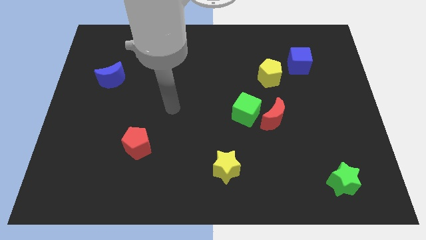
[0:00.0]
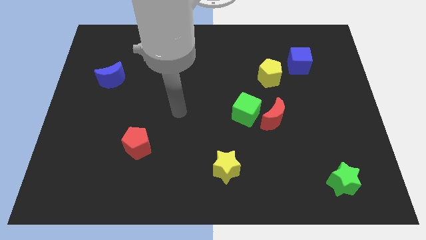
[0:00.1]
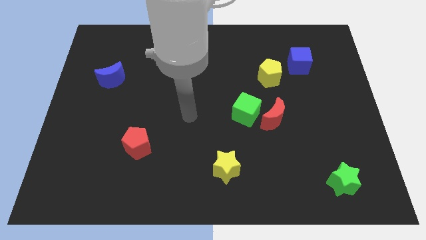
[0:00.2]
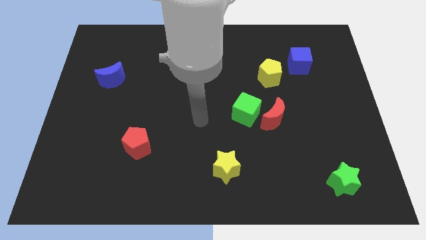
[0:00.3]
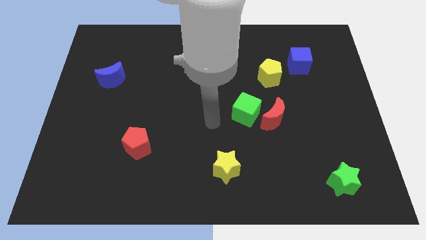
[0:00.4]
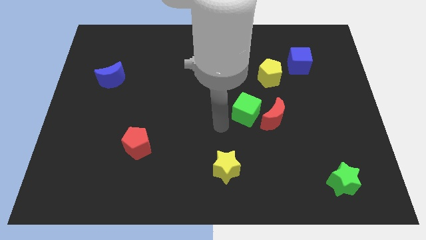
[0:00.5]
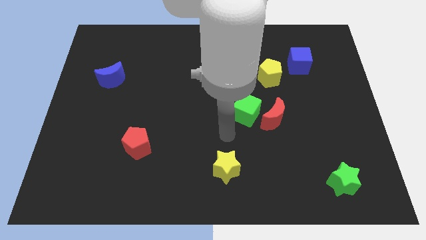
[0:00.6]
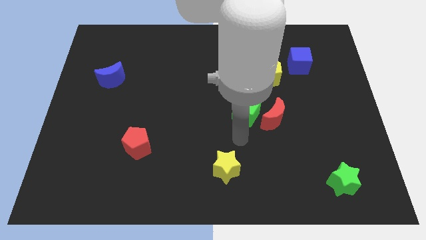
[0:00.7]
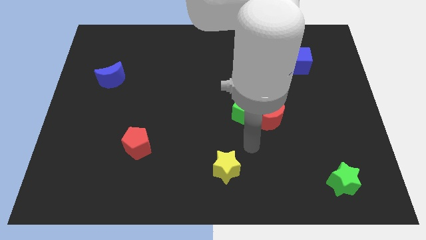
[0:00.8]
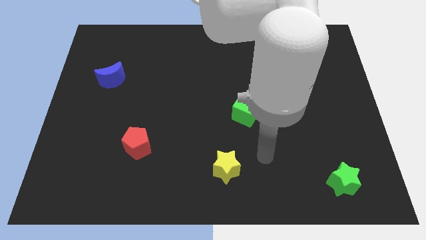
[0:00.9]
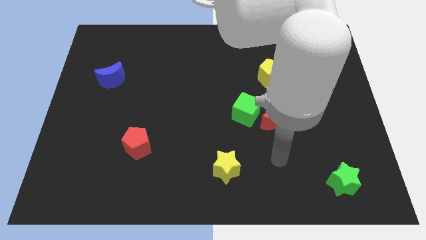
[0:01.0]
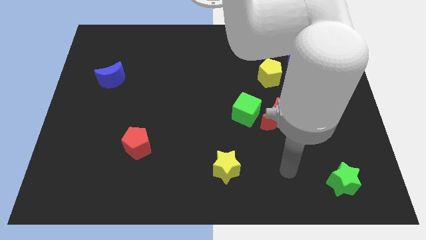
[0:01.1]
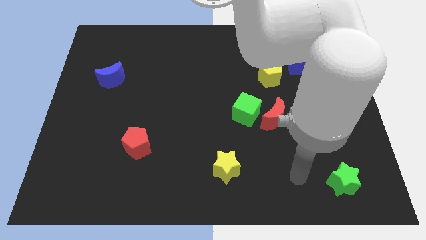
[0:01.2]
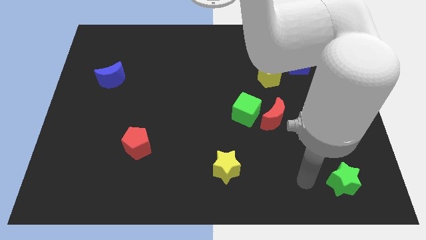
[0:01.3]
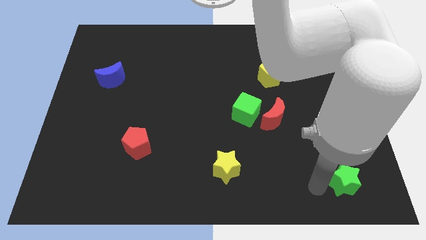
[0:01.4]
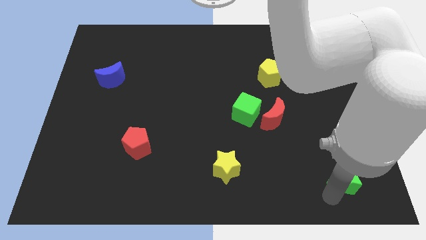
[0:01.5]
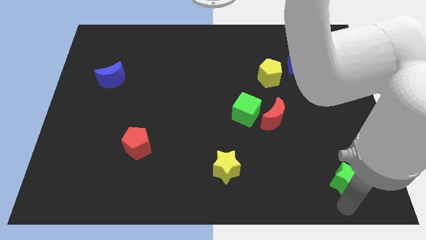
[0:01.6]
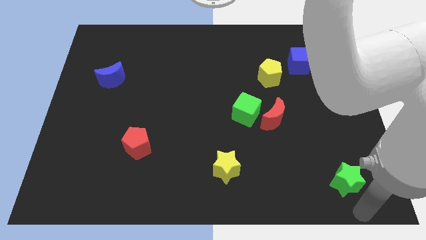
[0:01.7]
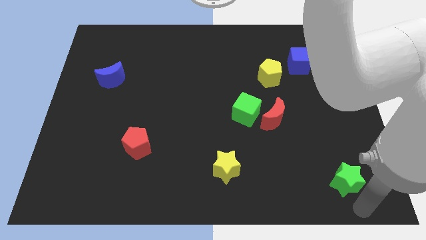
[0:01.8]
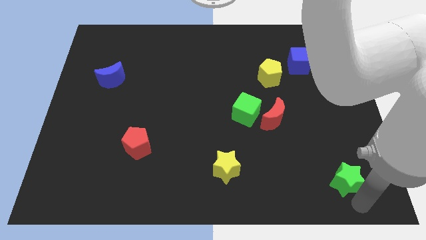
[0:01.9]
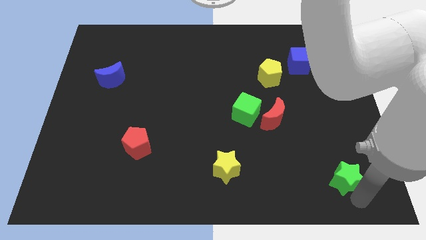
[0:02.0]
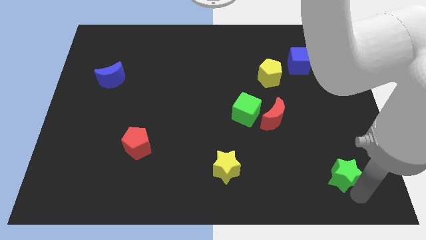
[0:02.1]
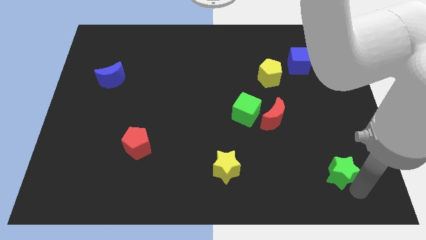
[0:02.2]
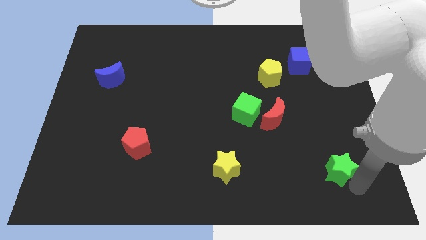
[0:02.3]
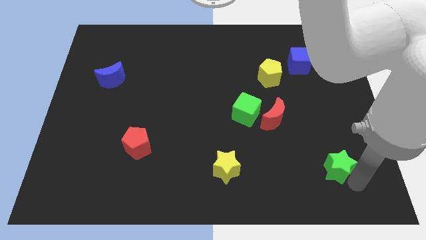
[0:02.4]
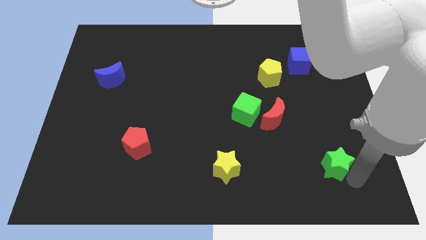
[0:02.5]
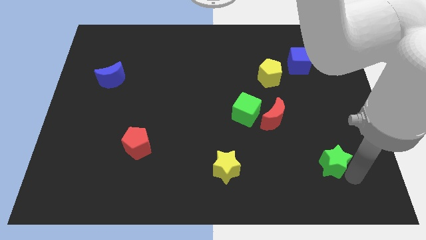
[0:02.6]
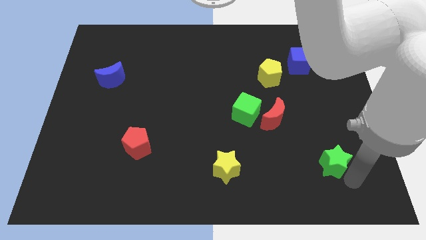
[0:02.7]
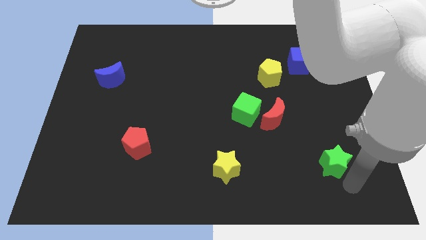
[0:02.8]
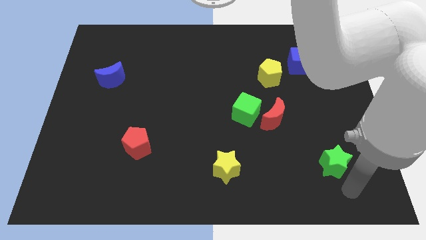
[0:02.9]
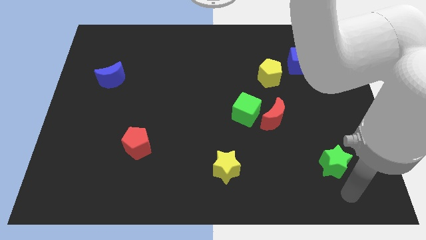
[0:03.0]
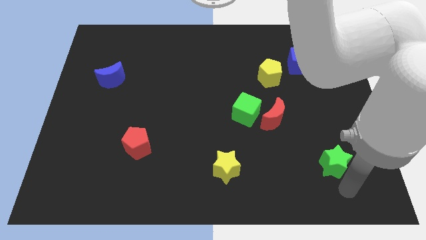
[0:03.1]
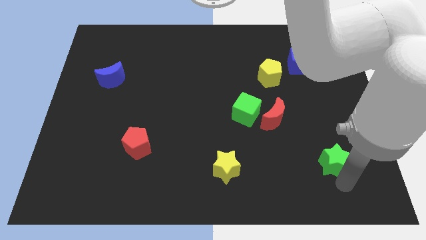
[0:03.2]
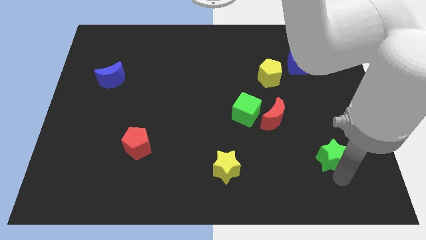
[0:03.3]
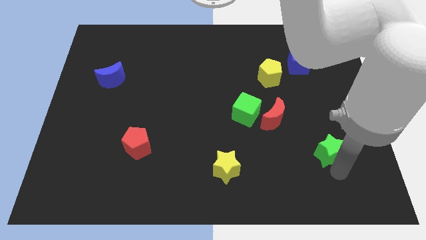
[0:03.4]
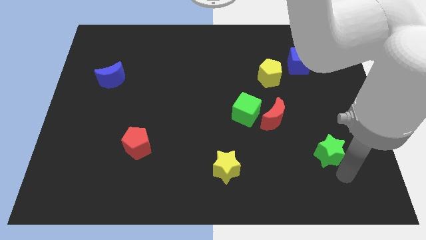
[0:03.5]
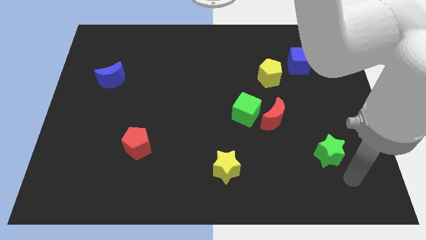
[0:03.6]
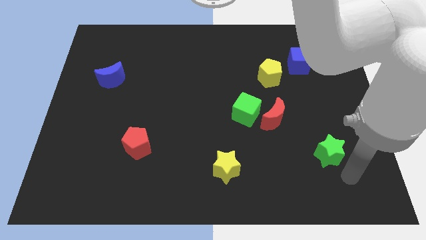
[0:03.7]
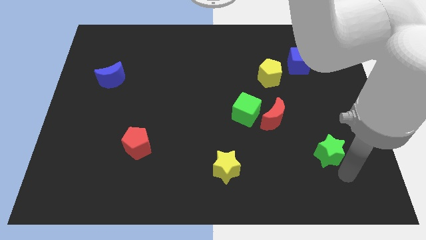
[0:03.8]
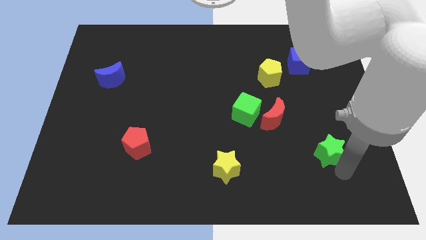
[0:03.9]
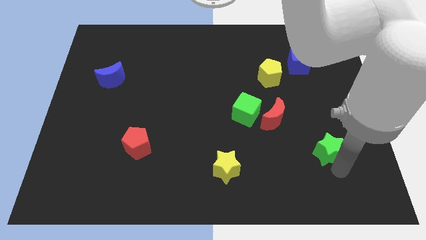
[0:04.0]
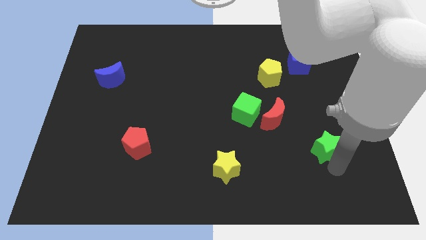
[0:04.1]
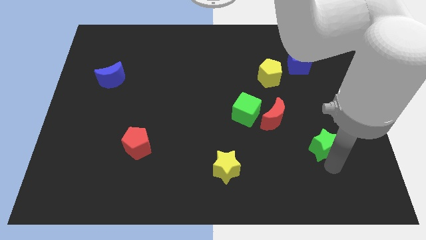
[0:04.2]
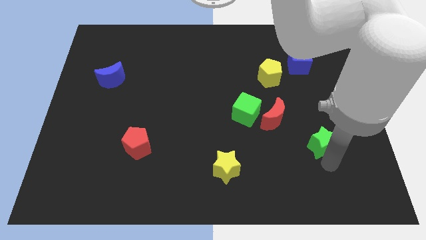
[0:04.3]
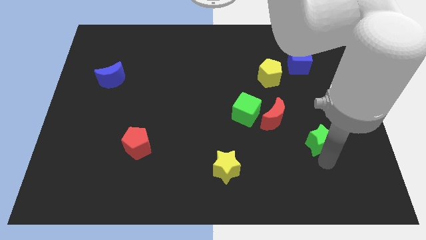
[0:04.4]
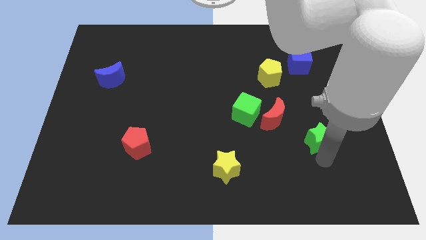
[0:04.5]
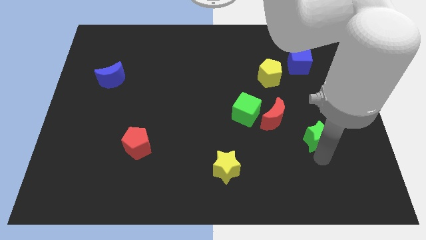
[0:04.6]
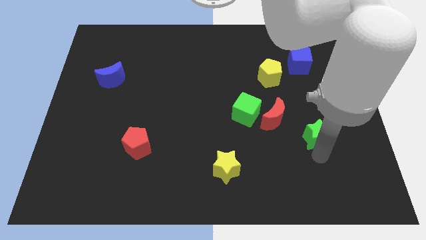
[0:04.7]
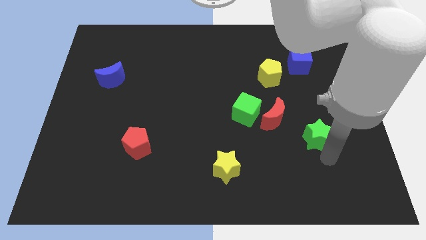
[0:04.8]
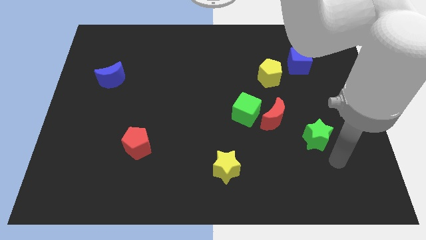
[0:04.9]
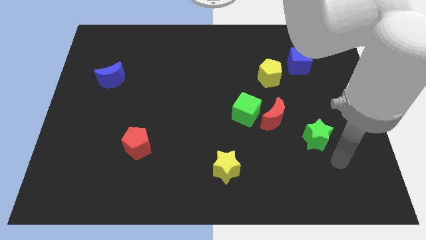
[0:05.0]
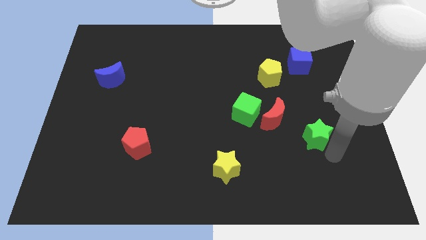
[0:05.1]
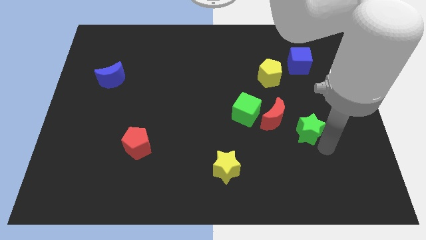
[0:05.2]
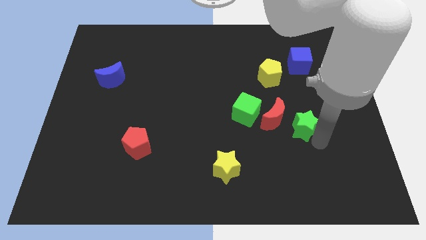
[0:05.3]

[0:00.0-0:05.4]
push the green star to the right side of the green cube

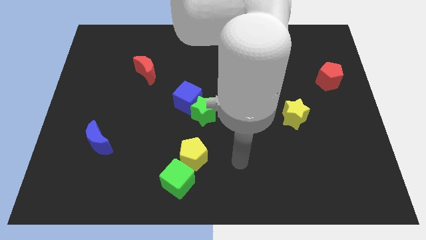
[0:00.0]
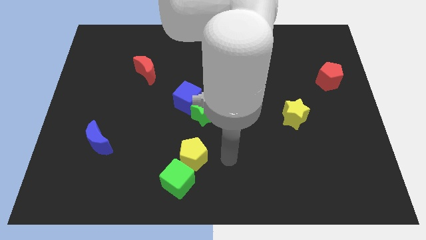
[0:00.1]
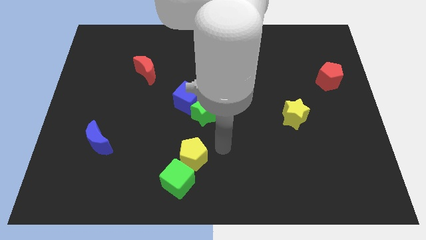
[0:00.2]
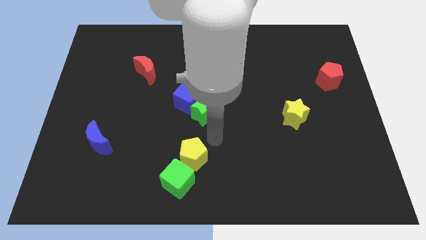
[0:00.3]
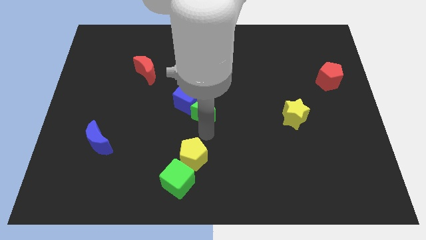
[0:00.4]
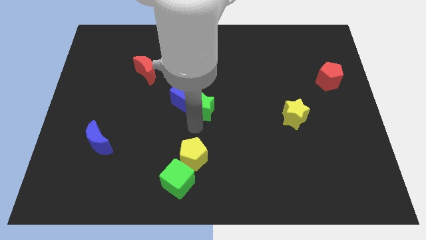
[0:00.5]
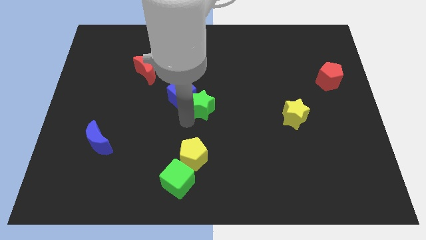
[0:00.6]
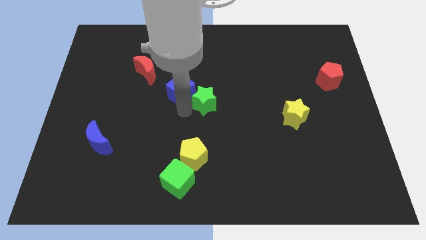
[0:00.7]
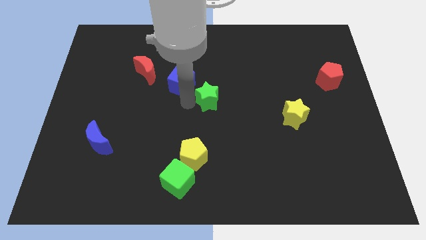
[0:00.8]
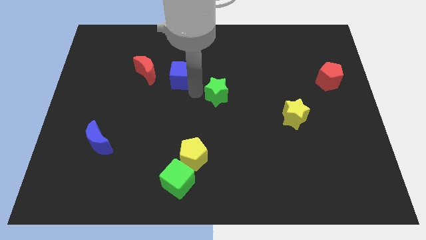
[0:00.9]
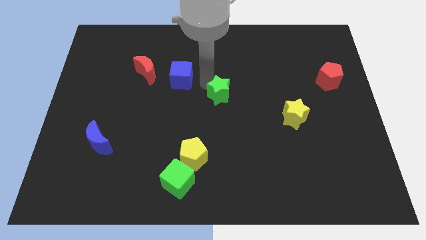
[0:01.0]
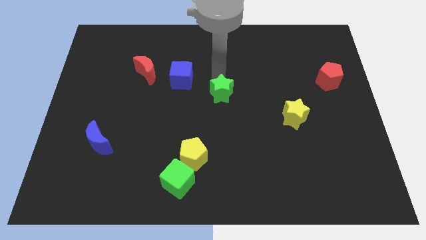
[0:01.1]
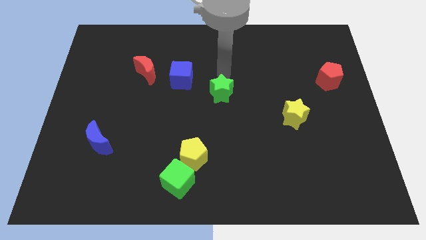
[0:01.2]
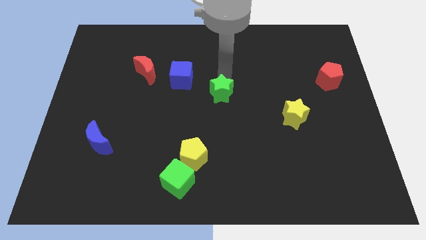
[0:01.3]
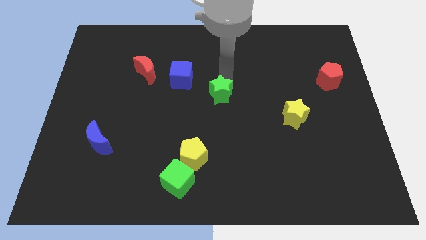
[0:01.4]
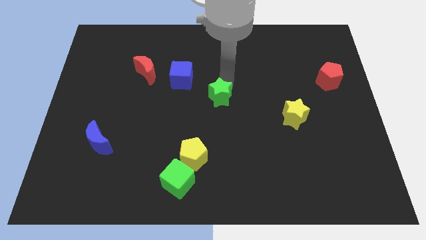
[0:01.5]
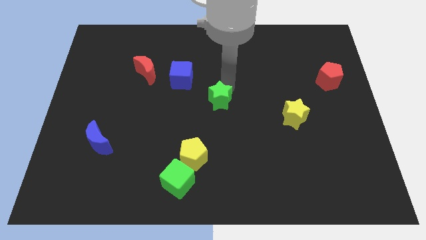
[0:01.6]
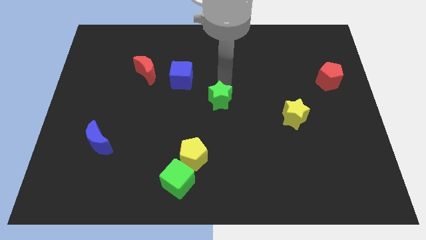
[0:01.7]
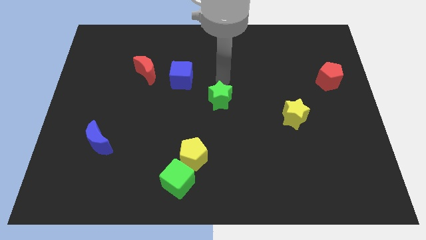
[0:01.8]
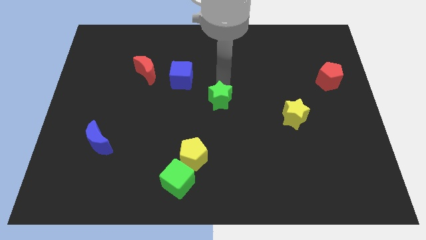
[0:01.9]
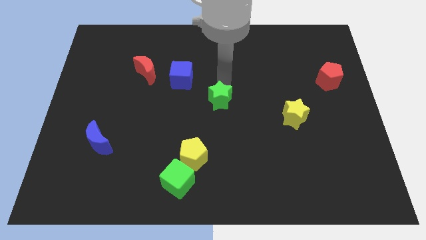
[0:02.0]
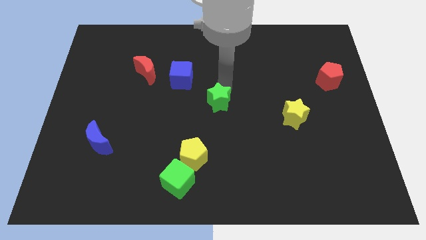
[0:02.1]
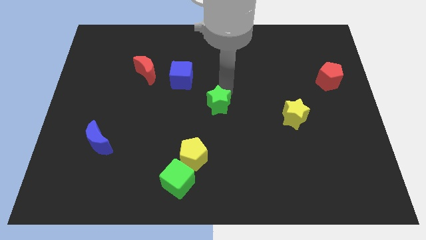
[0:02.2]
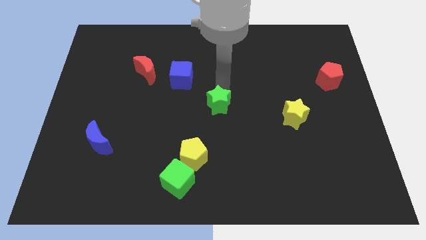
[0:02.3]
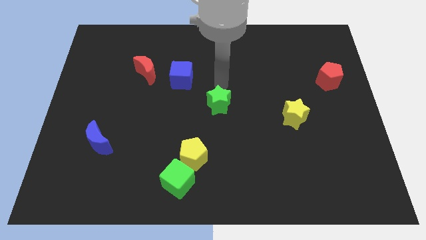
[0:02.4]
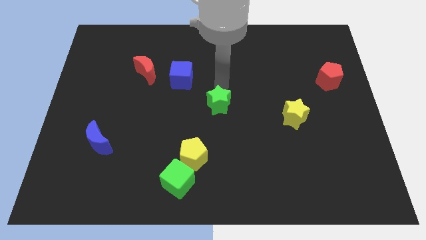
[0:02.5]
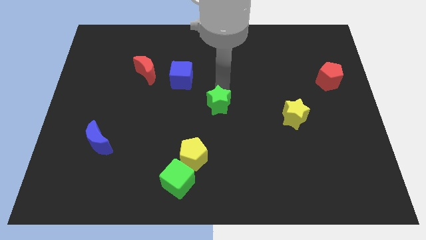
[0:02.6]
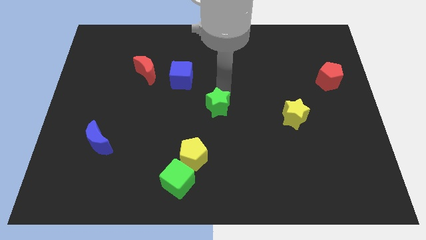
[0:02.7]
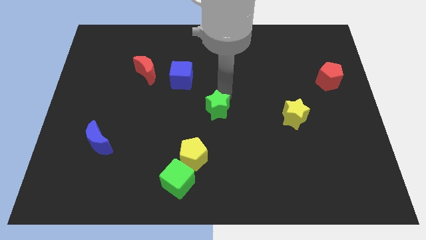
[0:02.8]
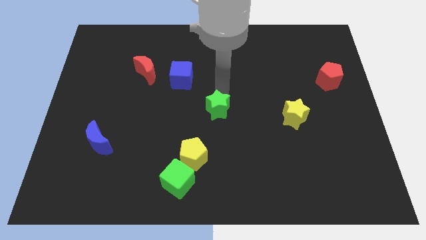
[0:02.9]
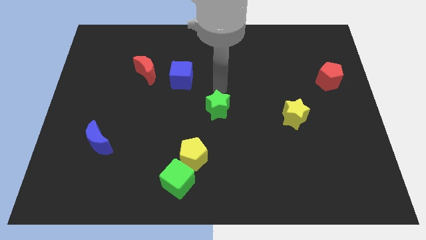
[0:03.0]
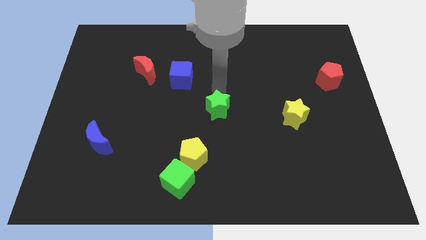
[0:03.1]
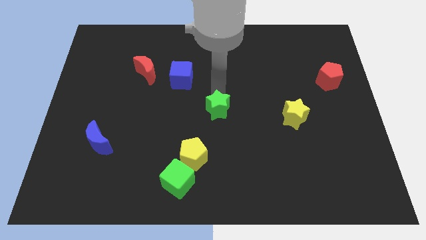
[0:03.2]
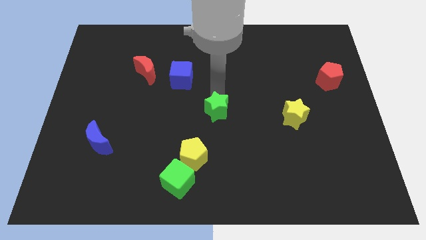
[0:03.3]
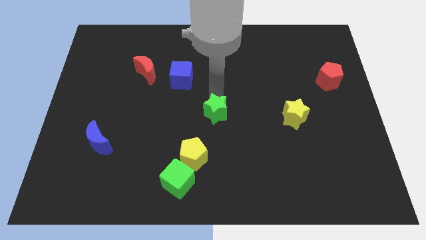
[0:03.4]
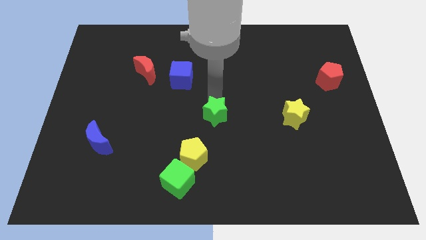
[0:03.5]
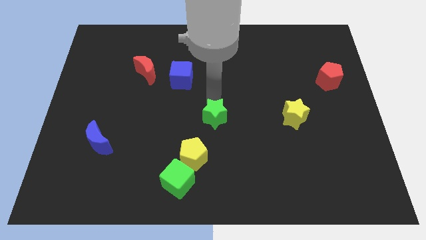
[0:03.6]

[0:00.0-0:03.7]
slide the green star to the top right of the yellow pentagon
